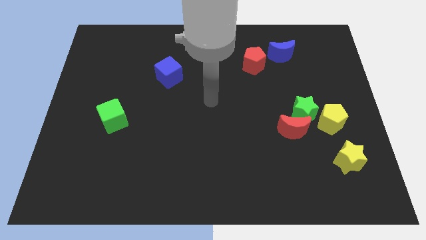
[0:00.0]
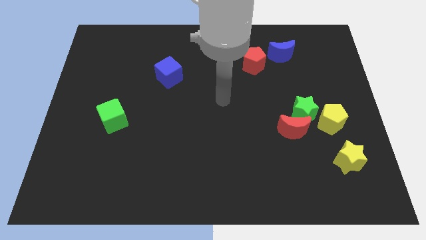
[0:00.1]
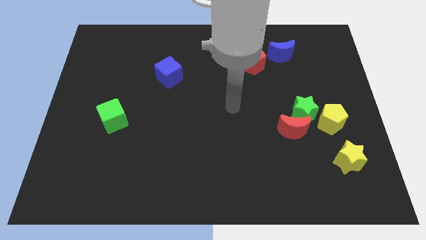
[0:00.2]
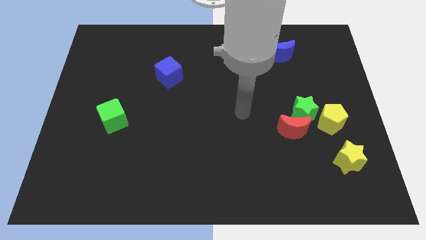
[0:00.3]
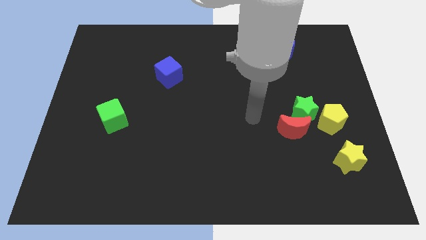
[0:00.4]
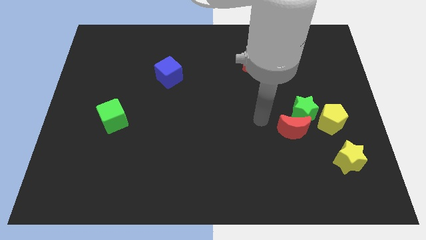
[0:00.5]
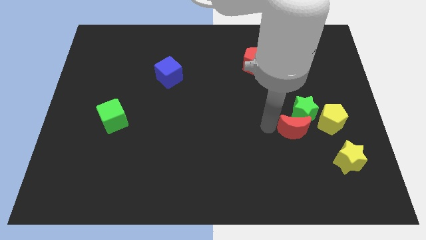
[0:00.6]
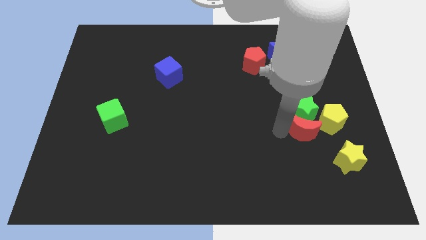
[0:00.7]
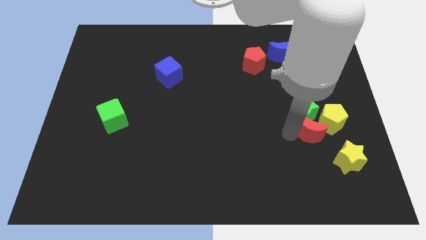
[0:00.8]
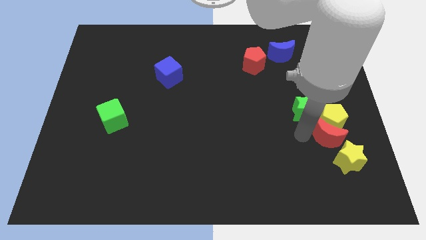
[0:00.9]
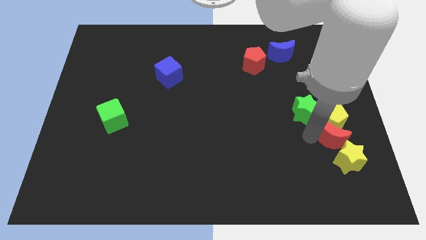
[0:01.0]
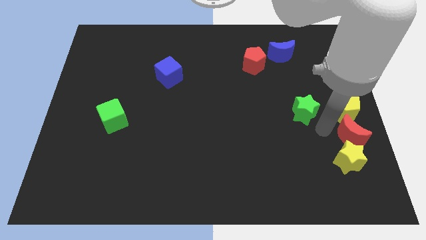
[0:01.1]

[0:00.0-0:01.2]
separate the green star from the red moon and yellow pentagon

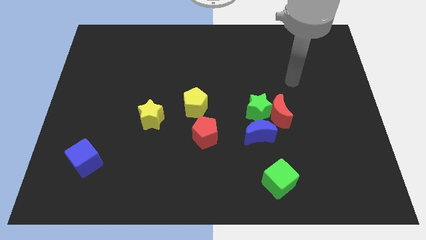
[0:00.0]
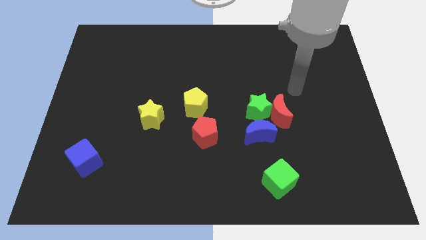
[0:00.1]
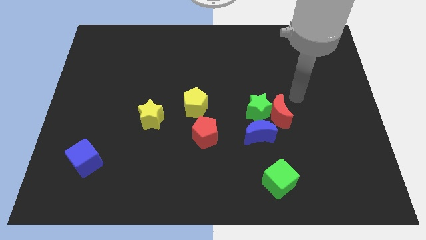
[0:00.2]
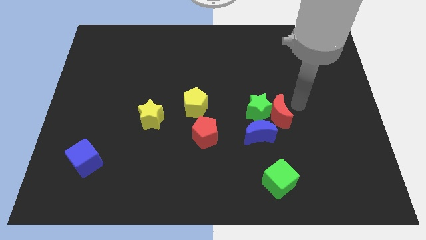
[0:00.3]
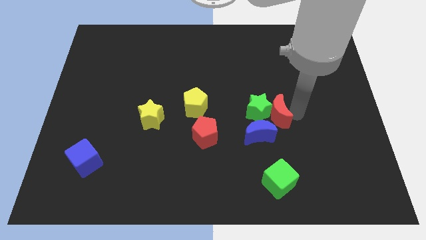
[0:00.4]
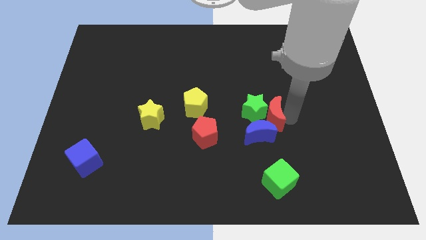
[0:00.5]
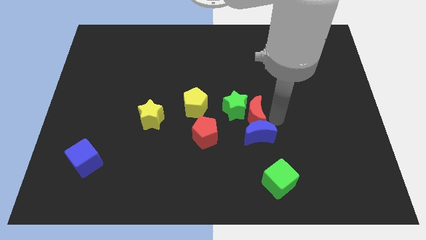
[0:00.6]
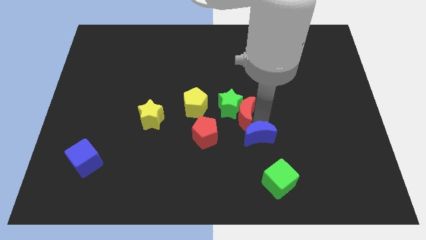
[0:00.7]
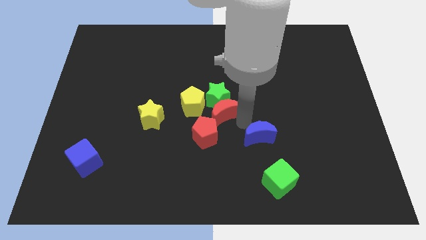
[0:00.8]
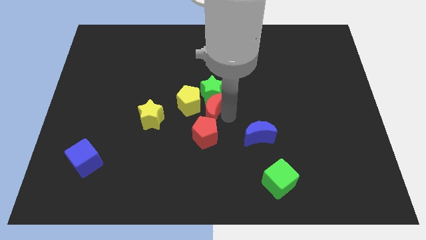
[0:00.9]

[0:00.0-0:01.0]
move the green star away from the red moon and blue moon

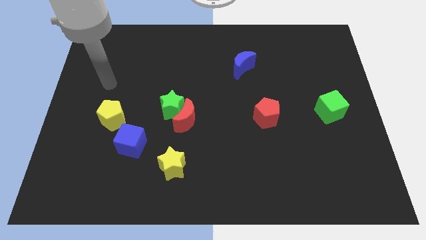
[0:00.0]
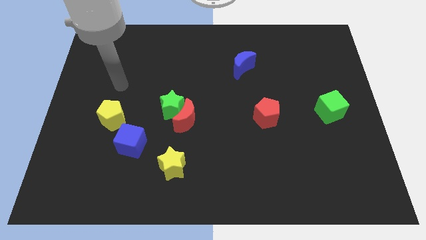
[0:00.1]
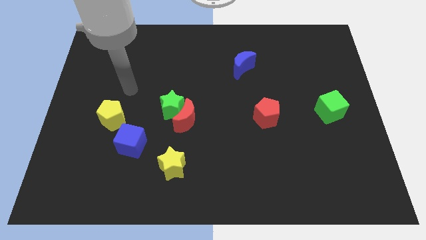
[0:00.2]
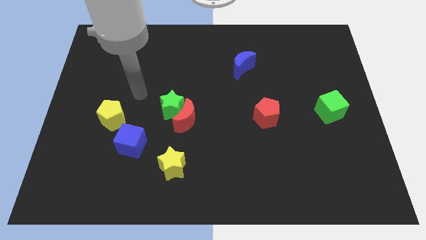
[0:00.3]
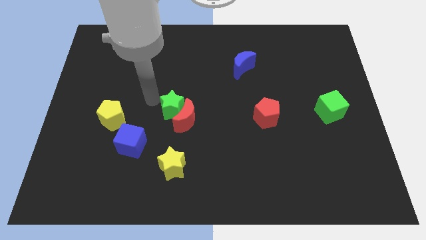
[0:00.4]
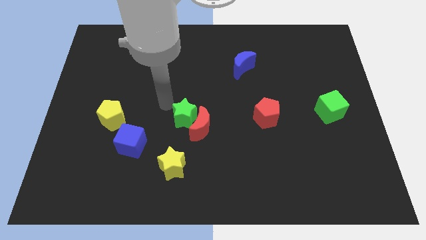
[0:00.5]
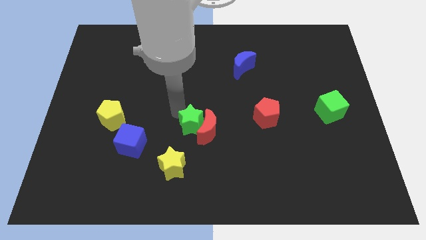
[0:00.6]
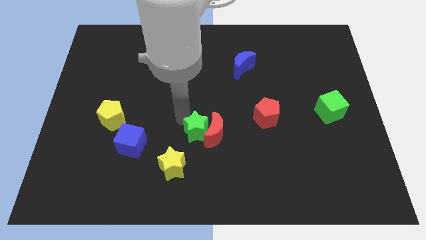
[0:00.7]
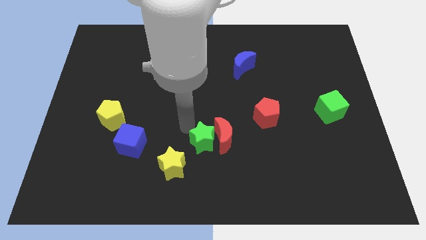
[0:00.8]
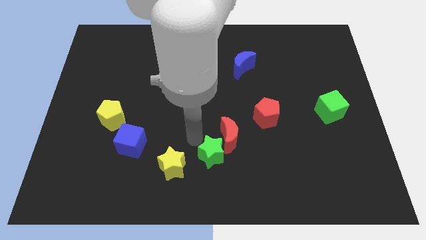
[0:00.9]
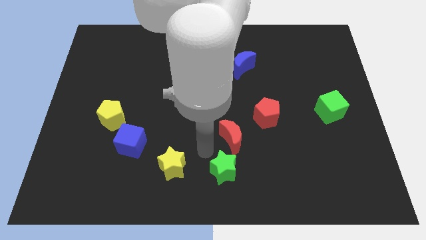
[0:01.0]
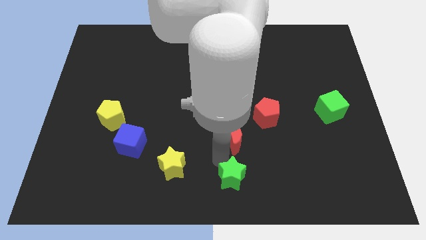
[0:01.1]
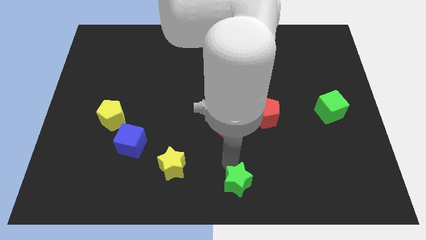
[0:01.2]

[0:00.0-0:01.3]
move the red moon away from the green star

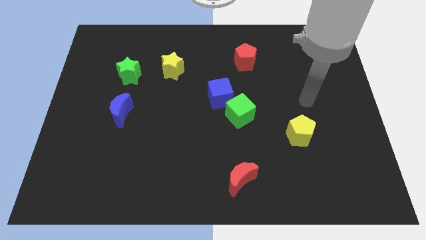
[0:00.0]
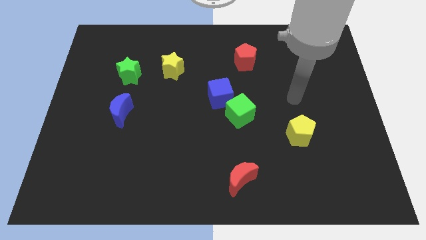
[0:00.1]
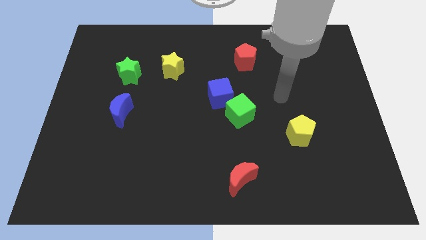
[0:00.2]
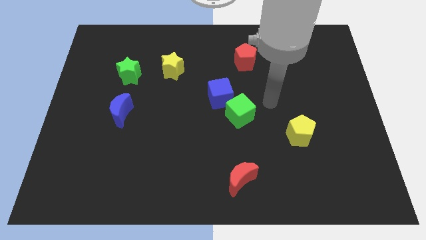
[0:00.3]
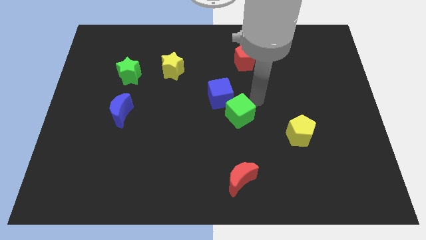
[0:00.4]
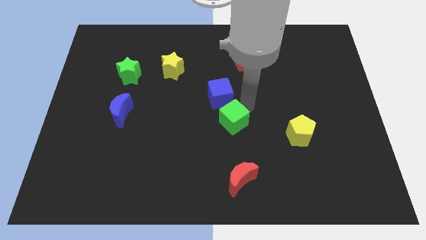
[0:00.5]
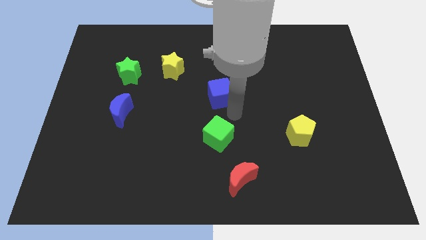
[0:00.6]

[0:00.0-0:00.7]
move the blue cube away from the green cube

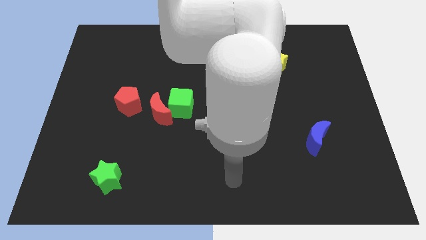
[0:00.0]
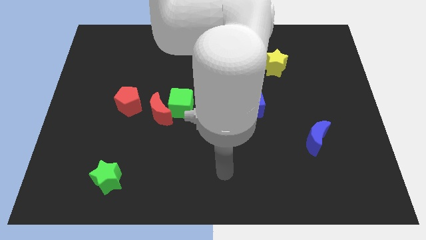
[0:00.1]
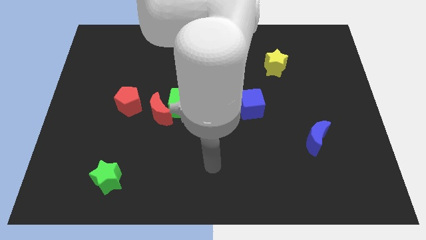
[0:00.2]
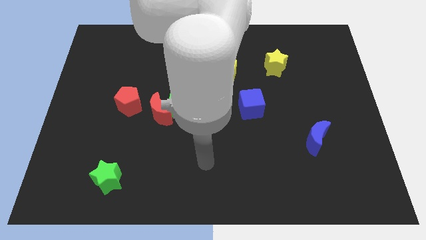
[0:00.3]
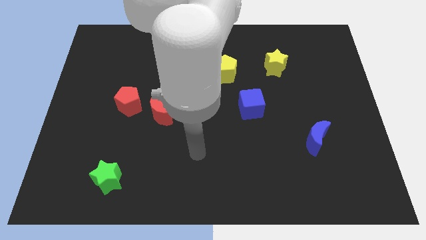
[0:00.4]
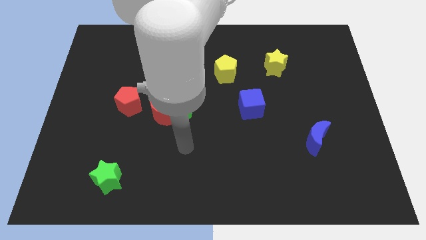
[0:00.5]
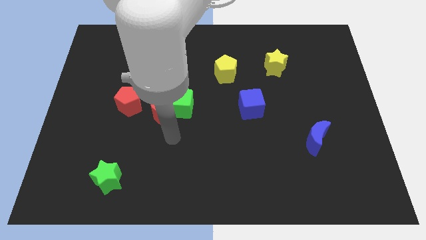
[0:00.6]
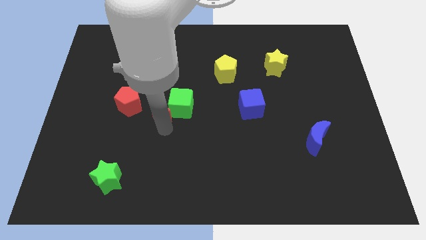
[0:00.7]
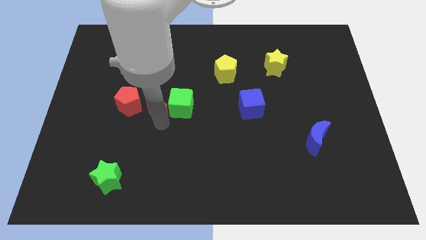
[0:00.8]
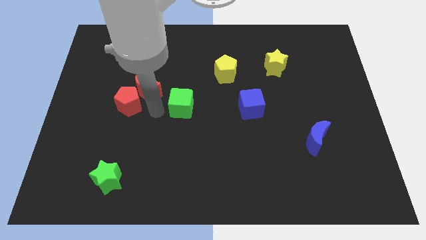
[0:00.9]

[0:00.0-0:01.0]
separate the green cube from the red moon

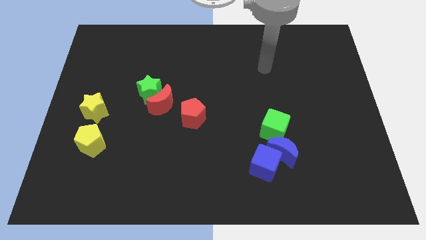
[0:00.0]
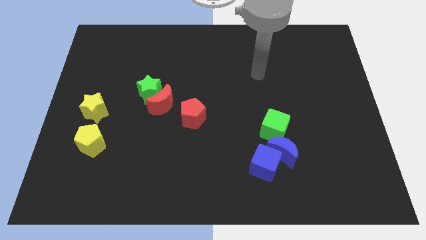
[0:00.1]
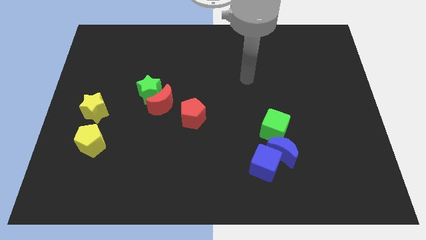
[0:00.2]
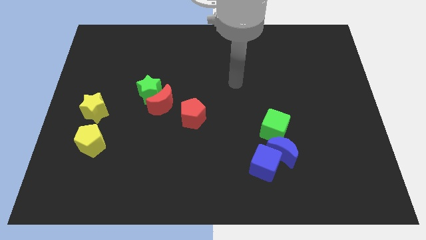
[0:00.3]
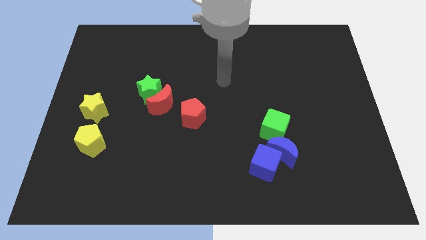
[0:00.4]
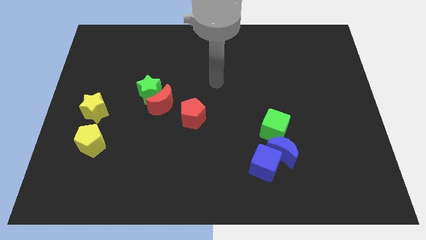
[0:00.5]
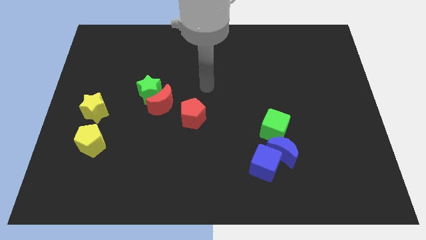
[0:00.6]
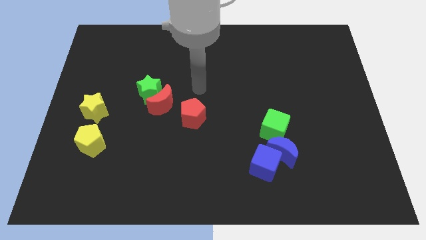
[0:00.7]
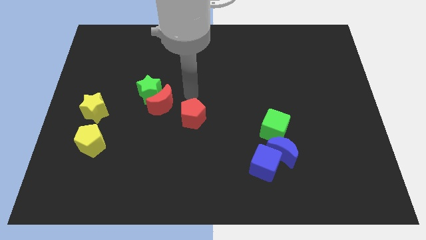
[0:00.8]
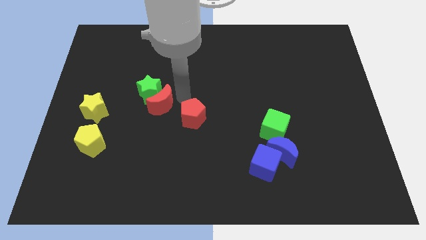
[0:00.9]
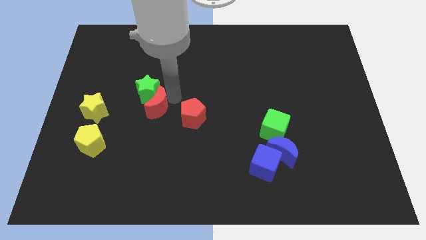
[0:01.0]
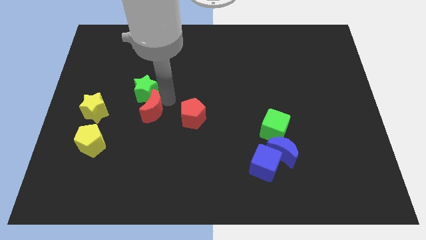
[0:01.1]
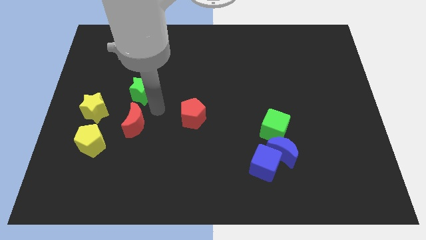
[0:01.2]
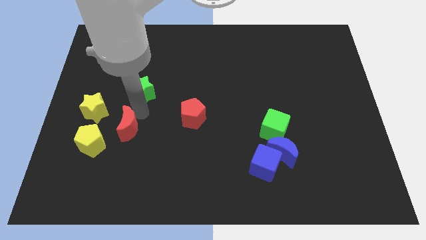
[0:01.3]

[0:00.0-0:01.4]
pull the green star apart from the red moon

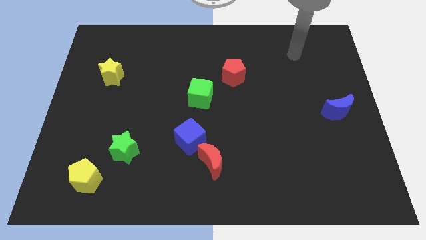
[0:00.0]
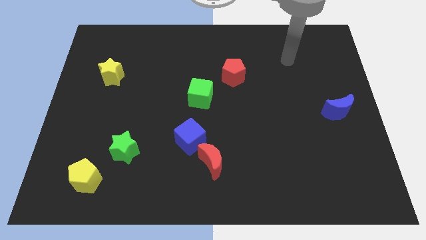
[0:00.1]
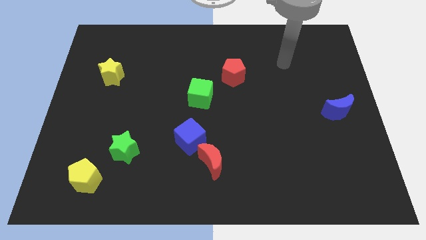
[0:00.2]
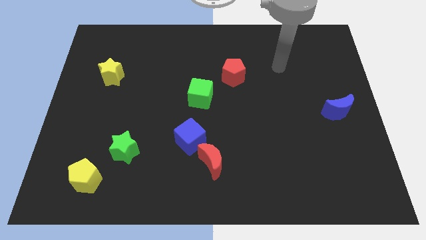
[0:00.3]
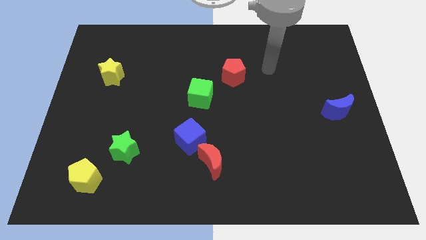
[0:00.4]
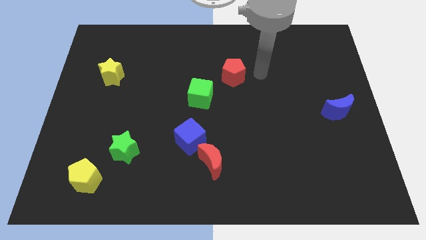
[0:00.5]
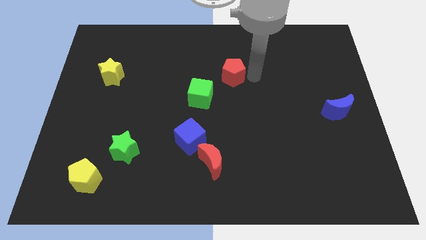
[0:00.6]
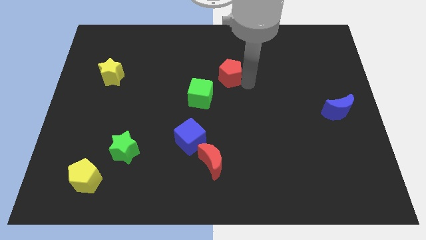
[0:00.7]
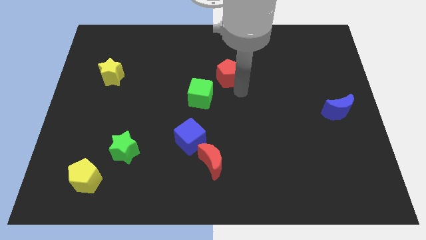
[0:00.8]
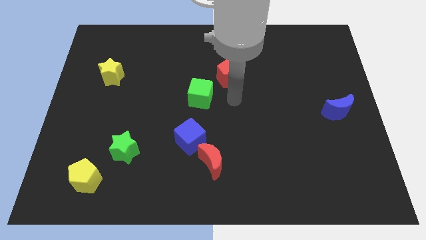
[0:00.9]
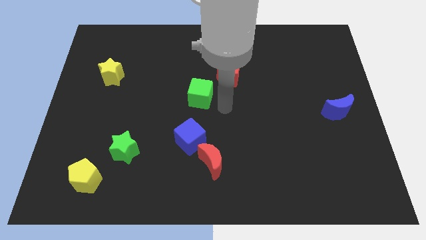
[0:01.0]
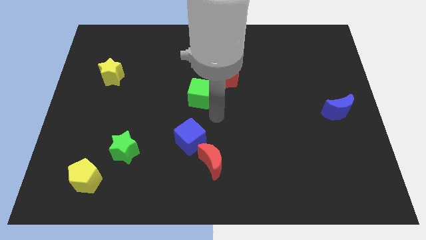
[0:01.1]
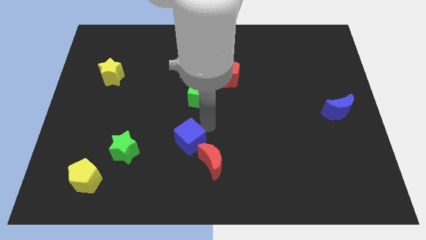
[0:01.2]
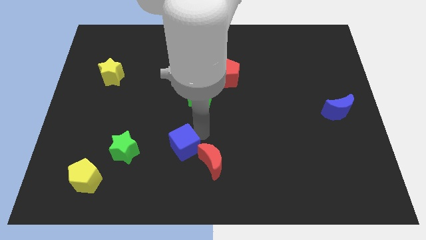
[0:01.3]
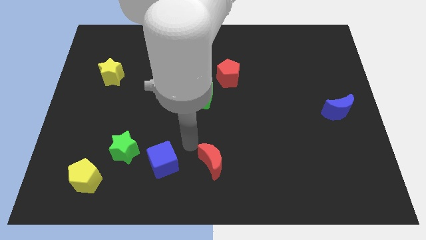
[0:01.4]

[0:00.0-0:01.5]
pull the red moon apart from the blue cube

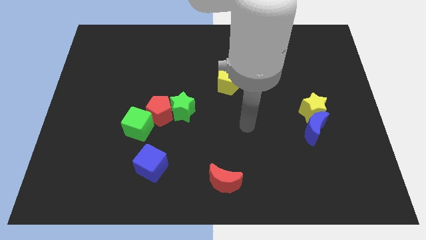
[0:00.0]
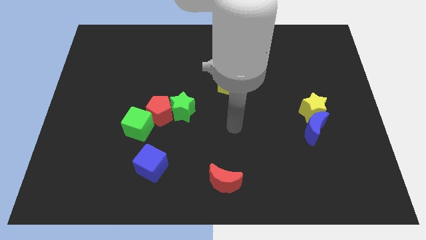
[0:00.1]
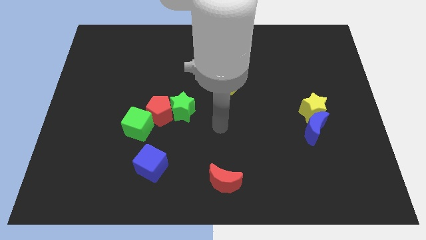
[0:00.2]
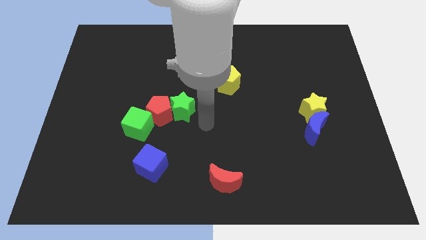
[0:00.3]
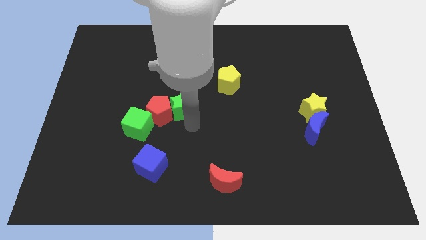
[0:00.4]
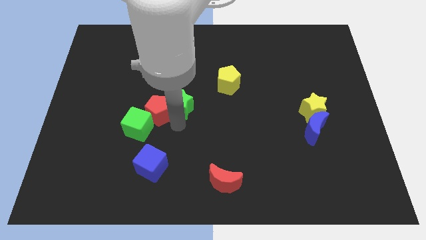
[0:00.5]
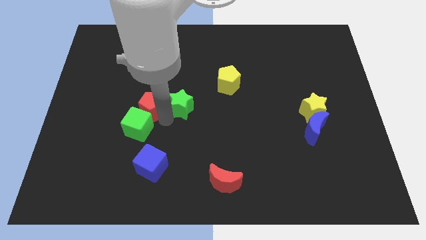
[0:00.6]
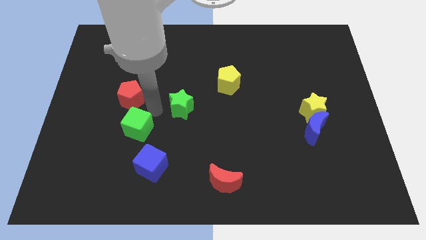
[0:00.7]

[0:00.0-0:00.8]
separate the green star from the red pentagon

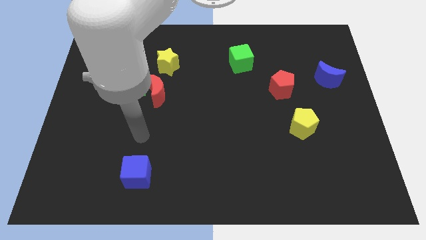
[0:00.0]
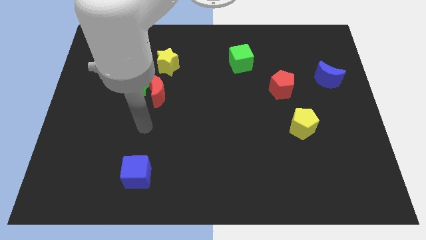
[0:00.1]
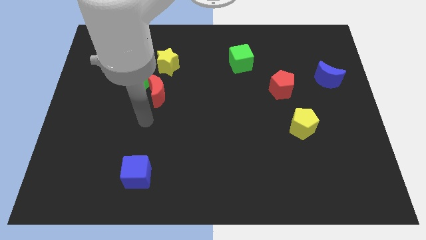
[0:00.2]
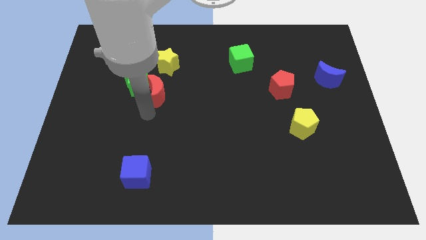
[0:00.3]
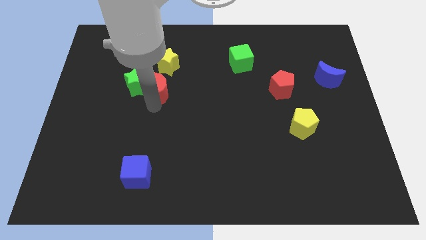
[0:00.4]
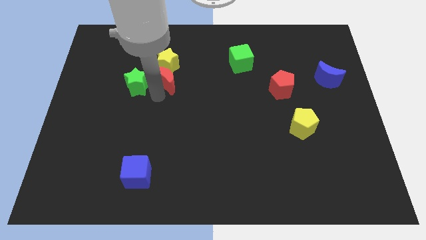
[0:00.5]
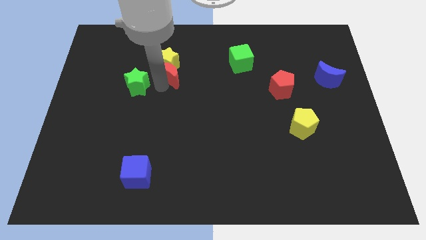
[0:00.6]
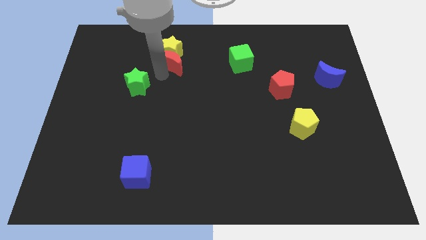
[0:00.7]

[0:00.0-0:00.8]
move the green star away from the red moon and yellow star
